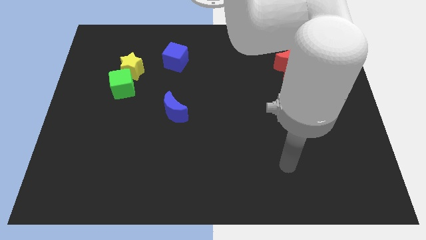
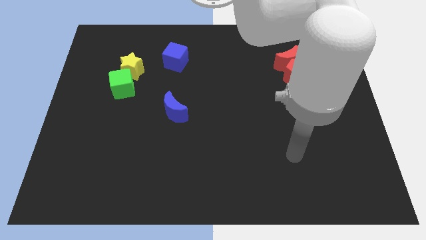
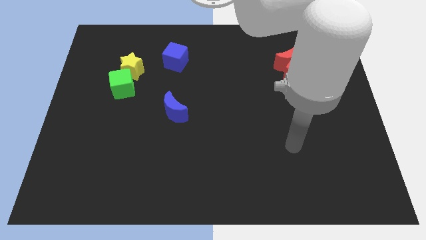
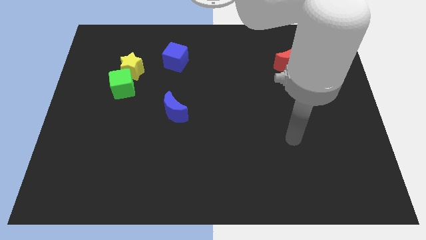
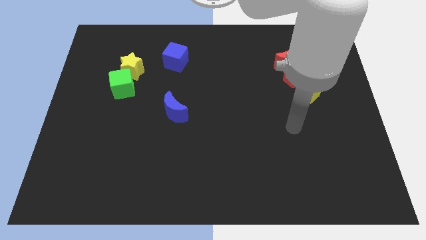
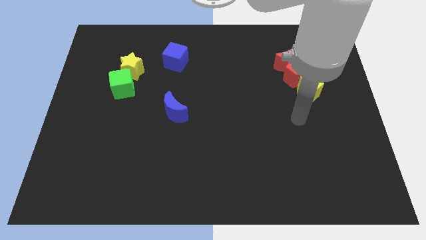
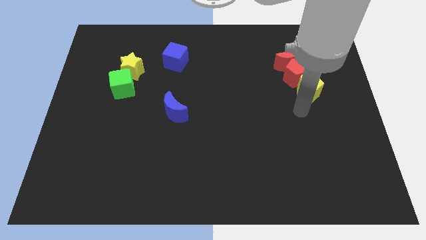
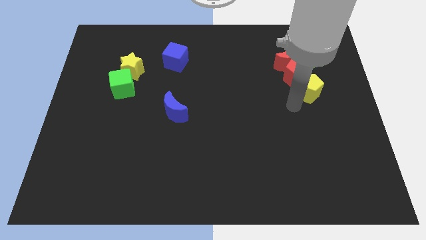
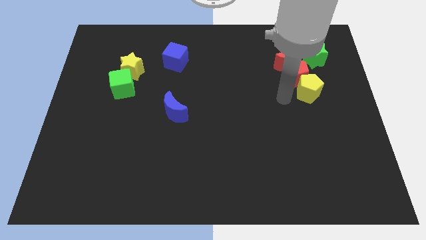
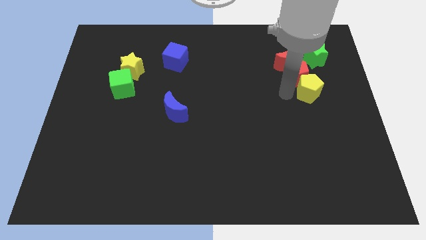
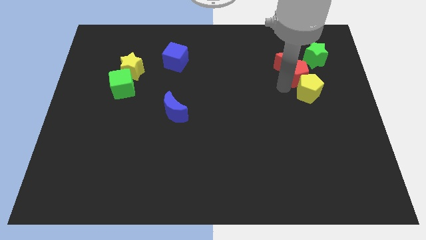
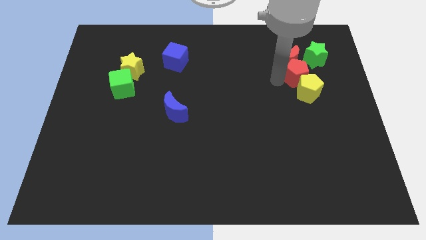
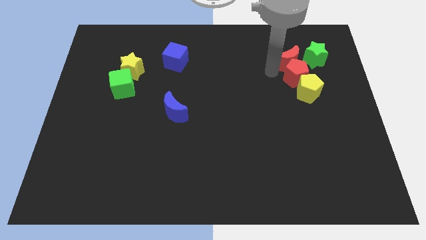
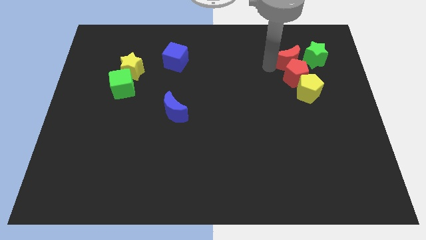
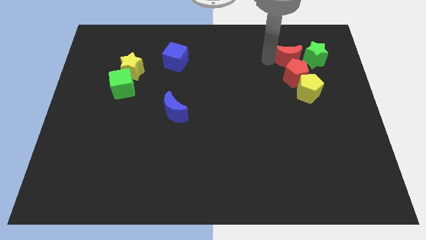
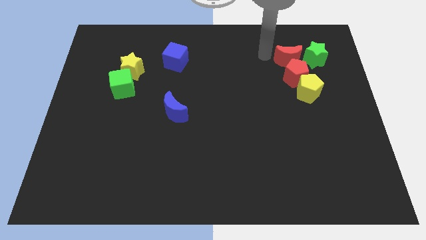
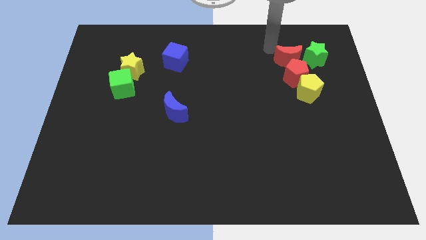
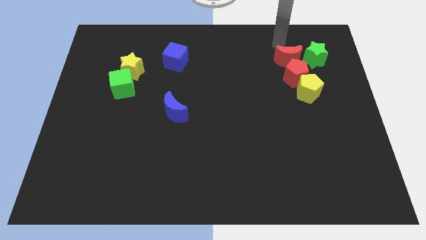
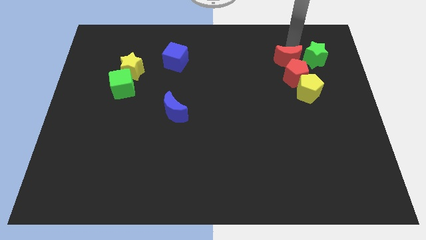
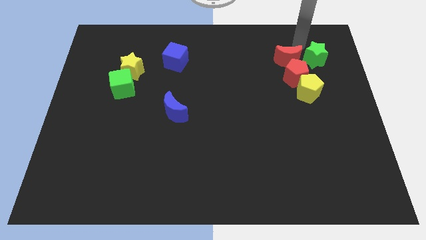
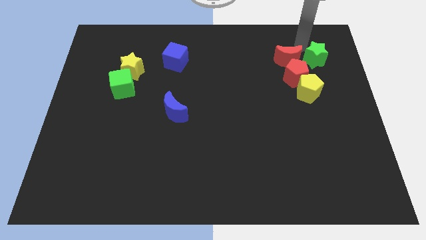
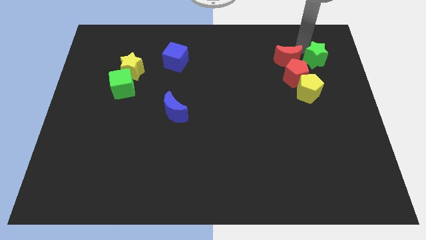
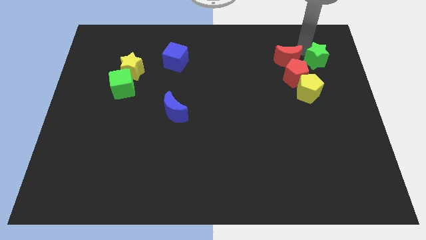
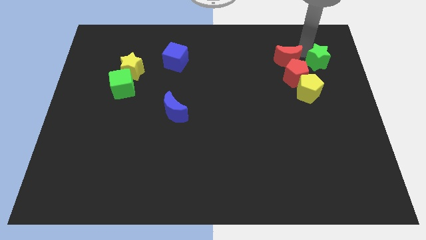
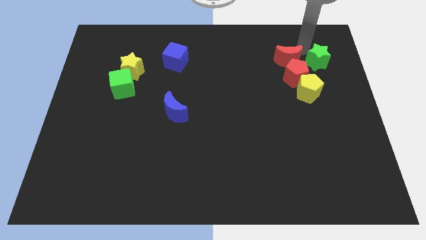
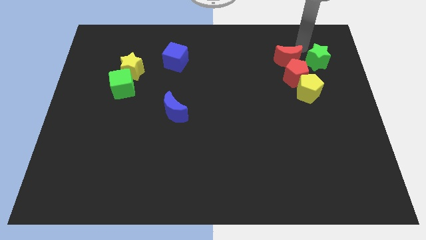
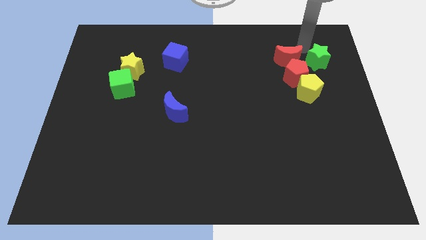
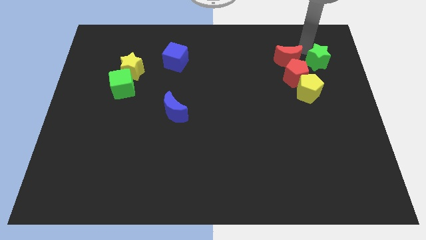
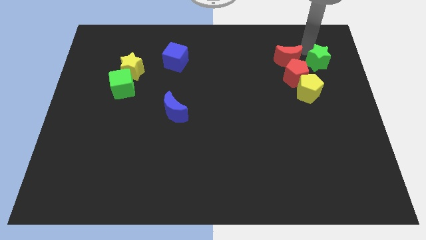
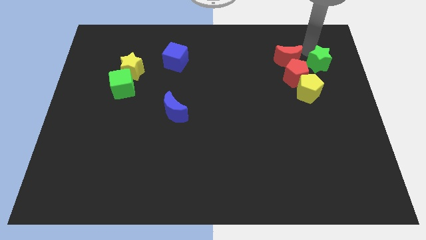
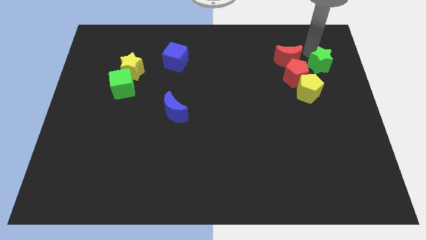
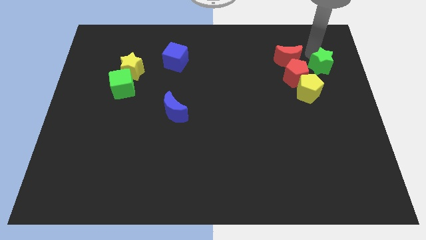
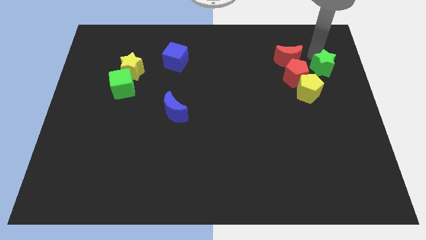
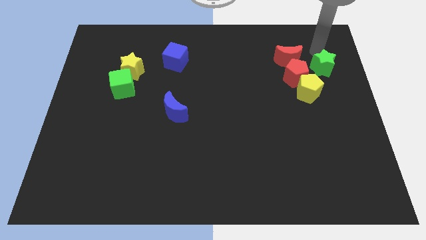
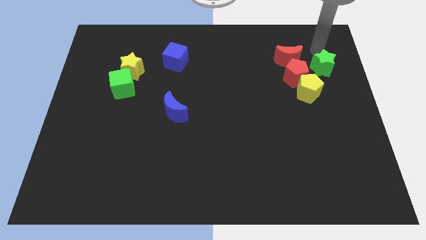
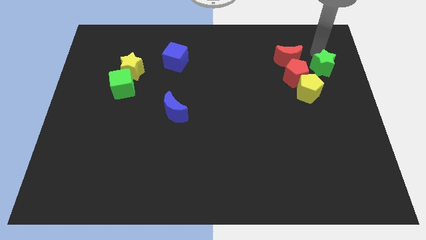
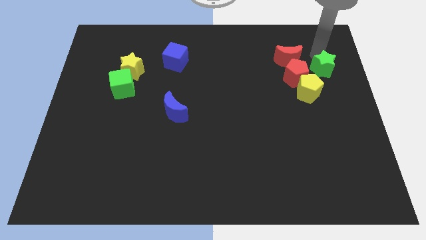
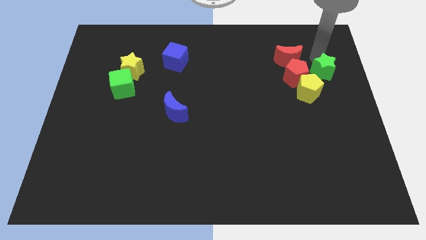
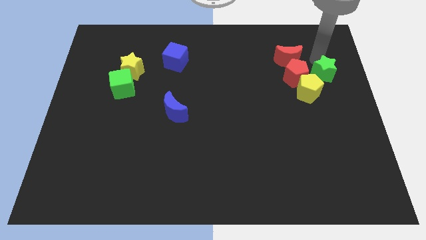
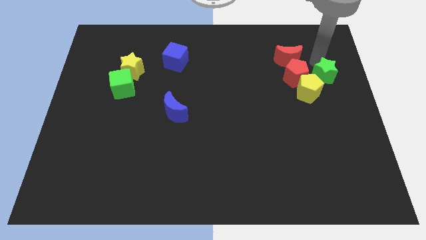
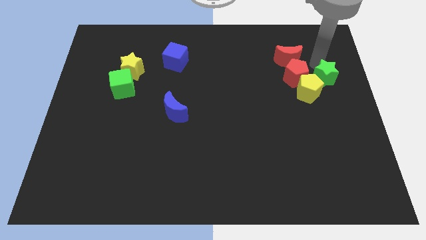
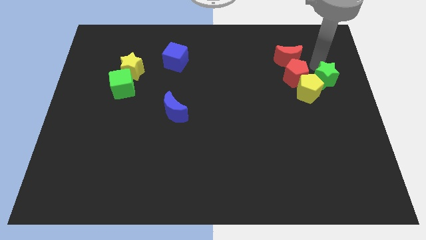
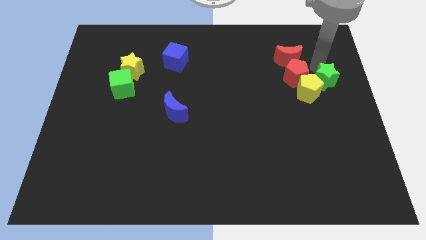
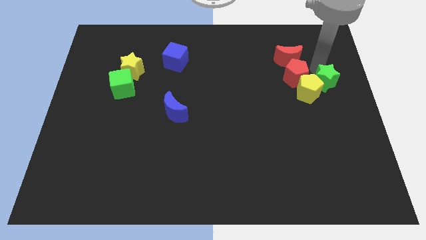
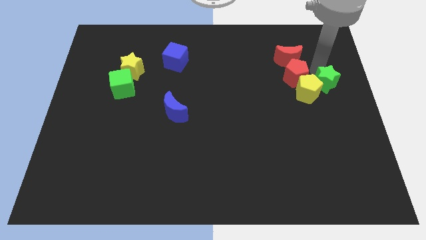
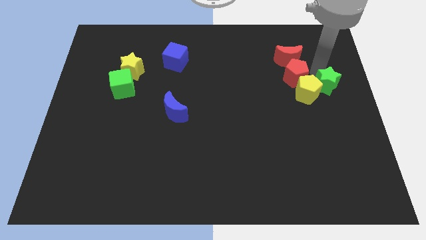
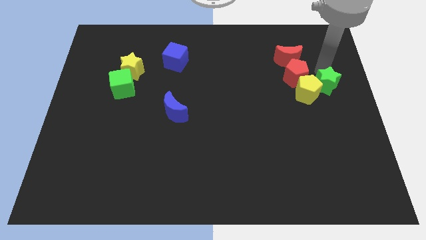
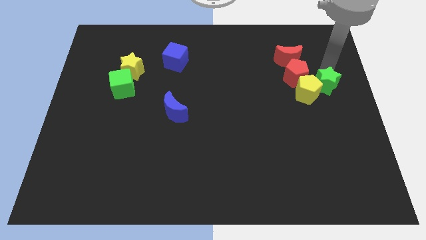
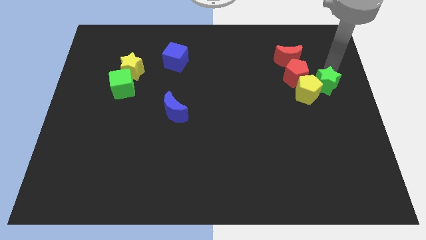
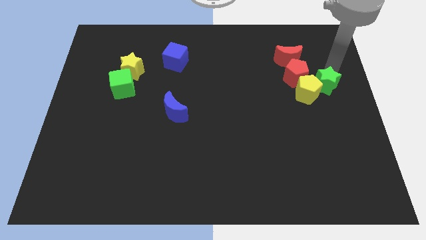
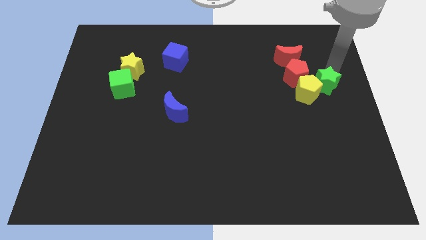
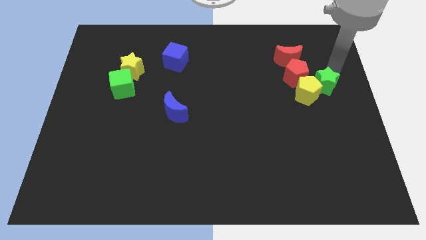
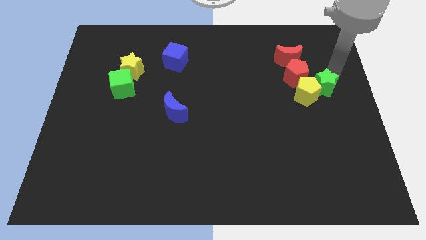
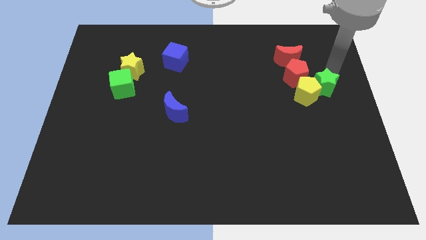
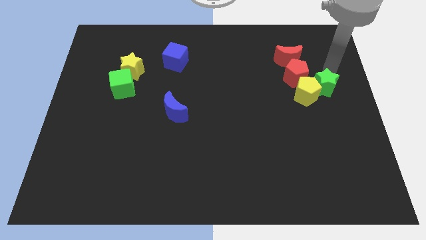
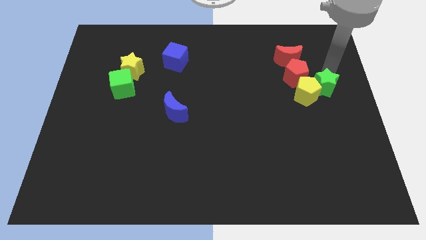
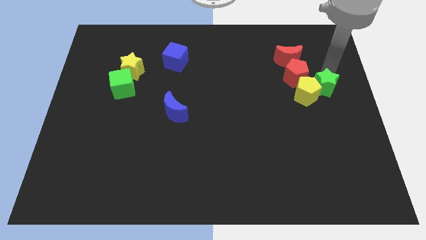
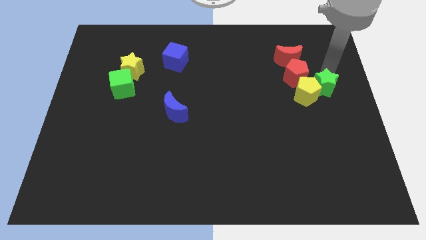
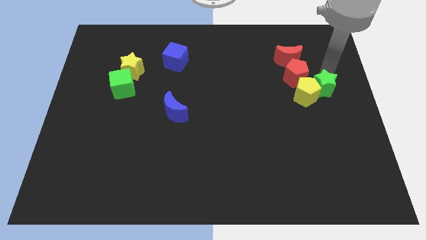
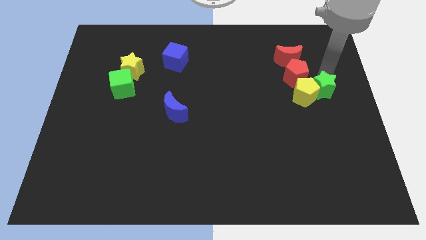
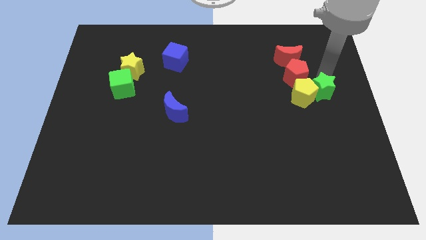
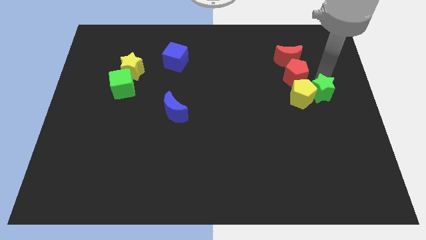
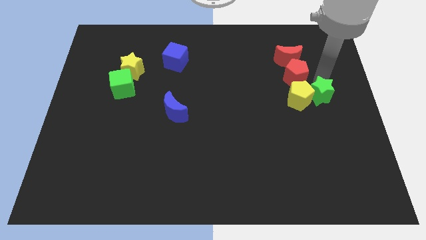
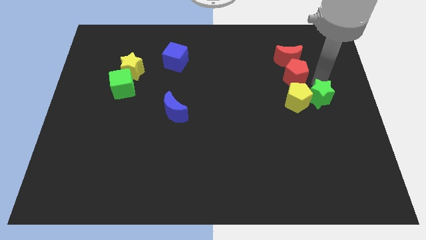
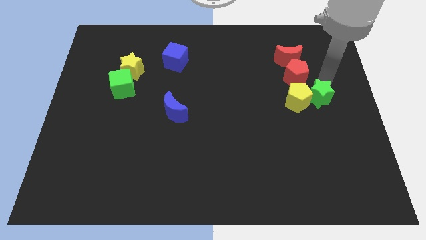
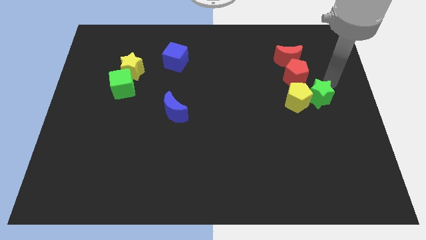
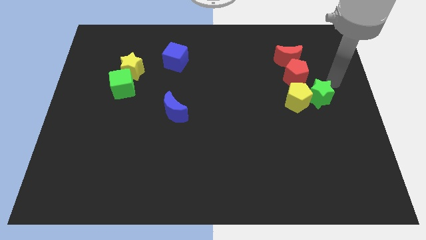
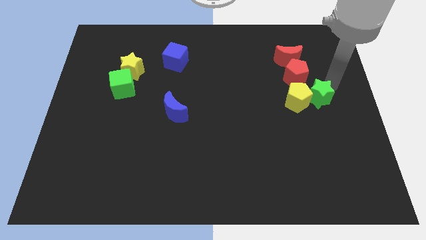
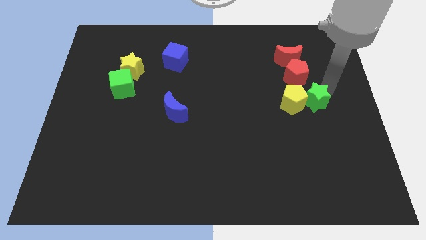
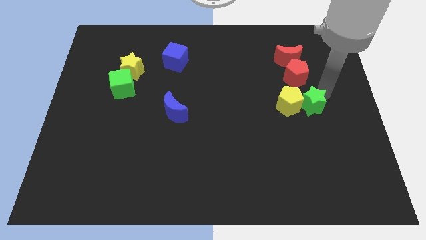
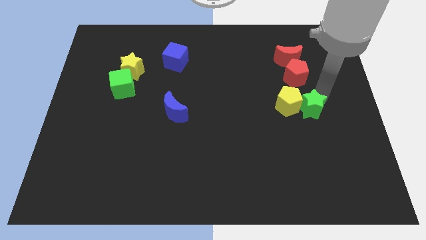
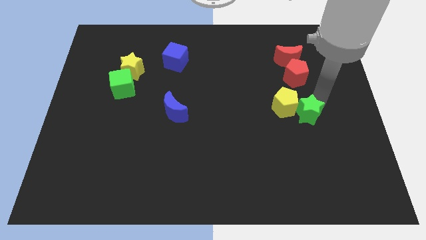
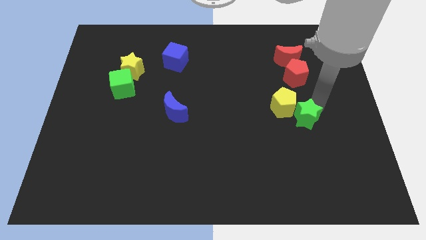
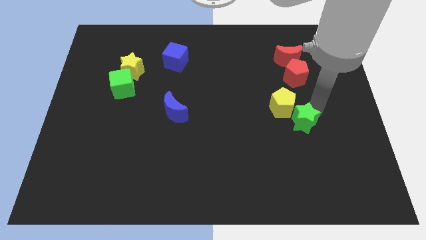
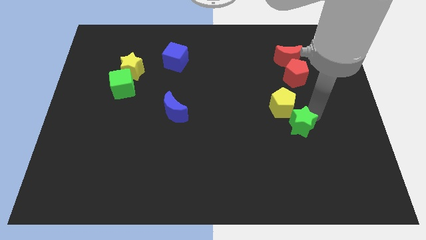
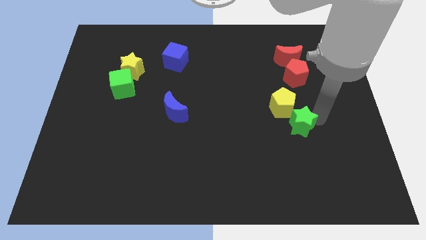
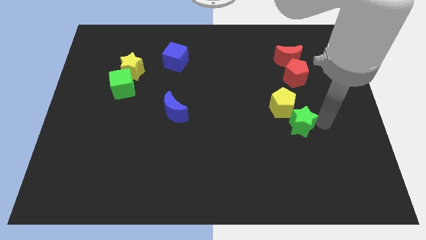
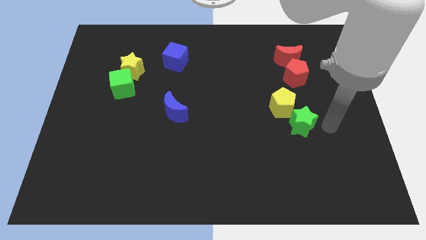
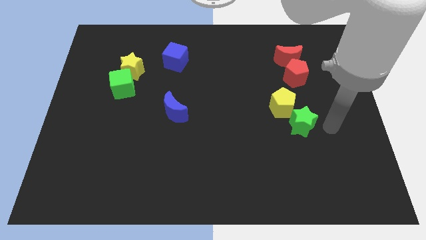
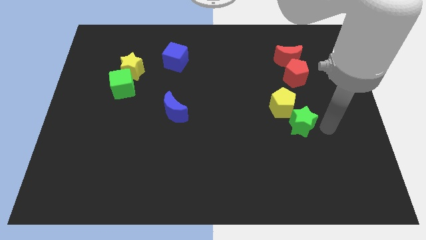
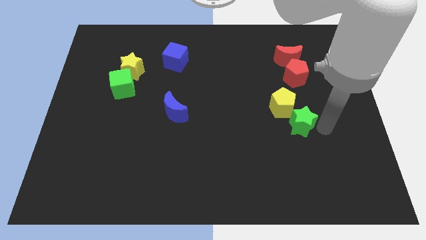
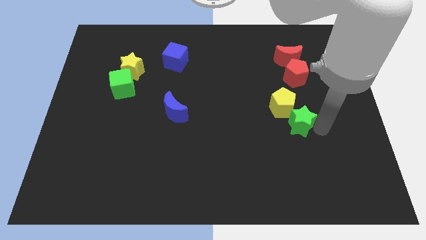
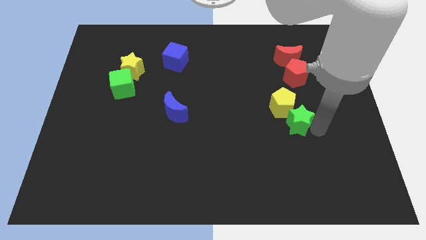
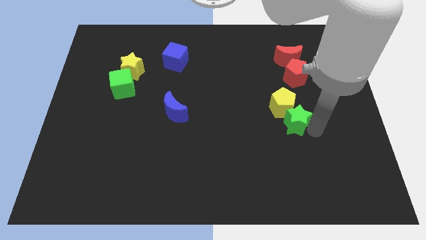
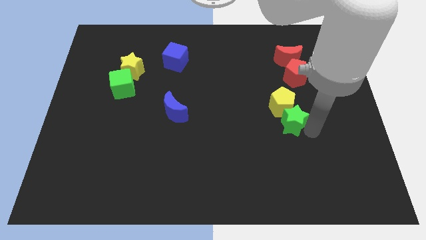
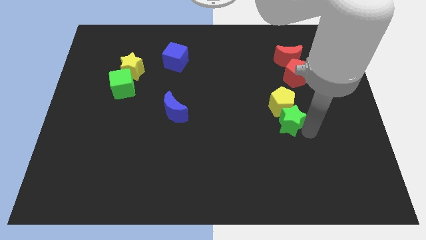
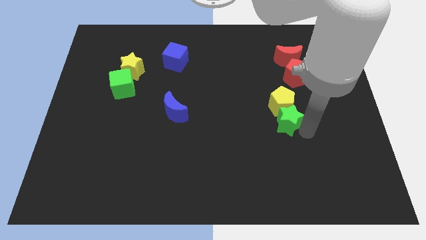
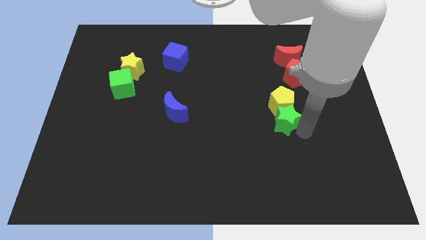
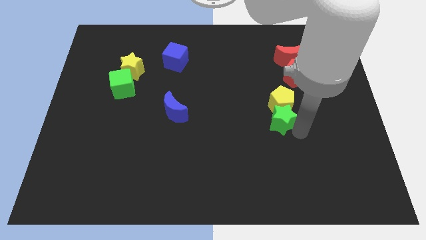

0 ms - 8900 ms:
move the green star diagonally downwards and left
